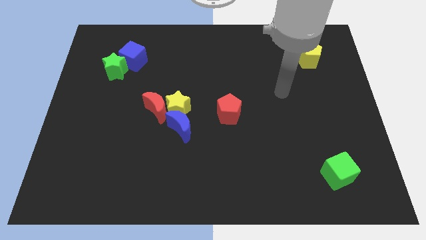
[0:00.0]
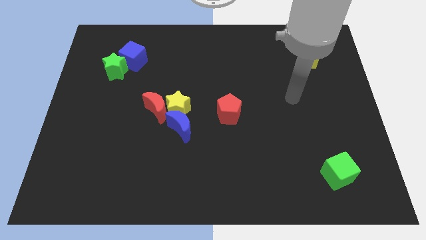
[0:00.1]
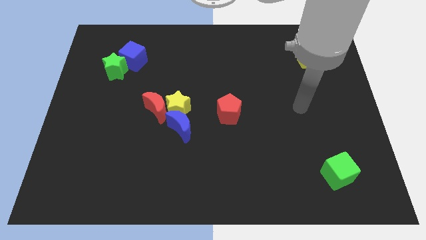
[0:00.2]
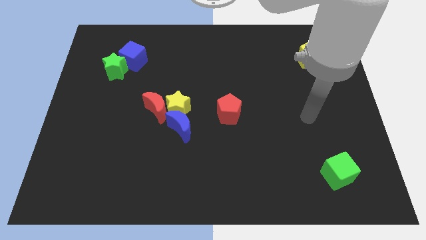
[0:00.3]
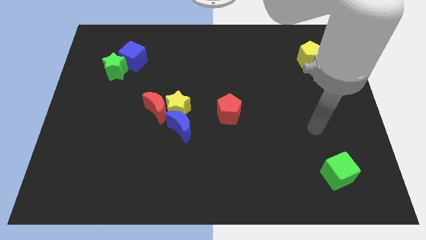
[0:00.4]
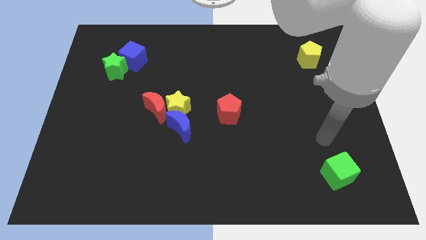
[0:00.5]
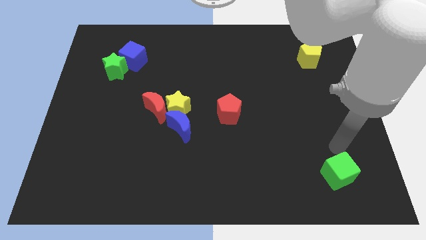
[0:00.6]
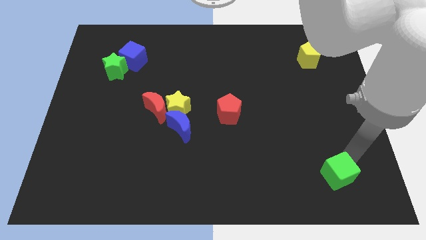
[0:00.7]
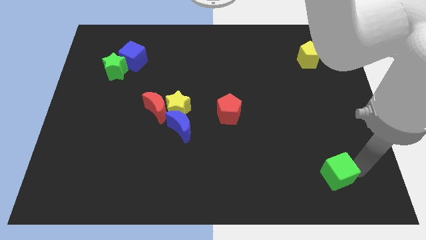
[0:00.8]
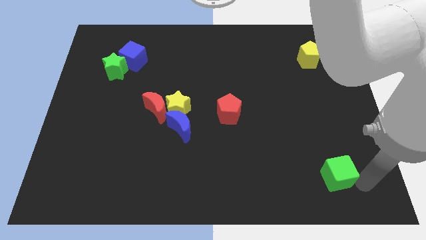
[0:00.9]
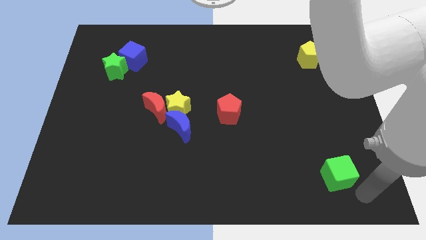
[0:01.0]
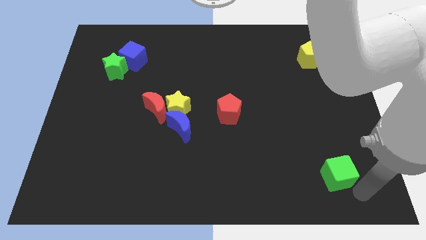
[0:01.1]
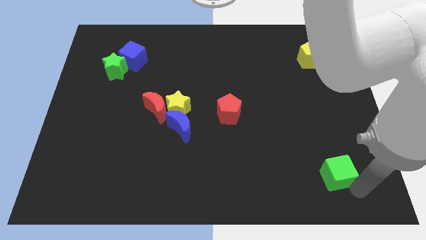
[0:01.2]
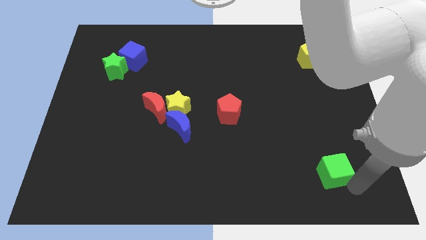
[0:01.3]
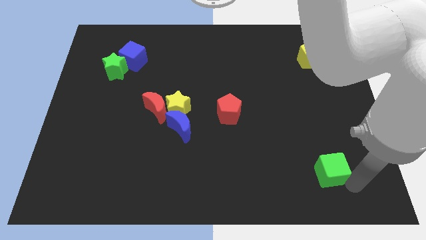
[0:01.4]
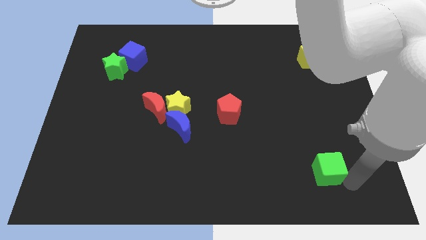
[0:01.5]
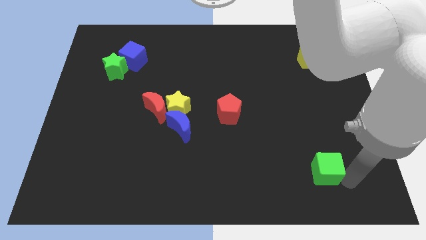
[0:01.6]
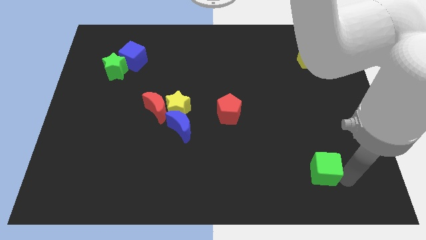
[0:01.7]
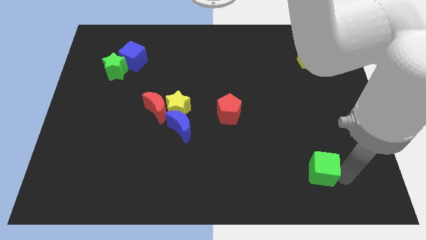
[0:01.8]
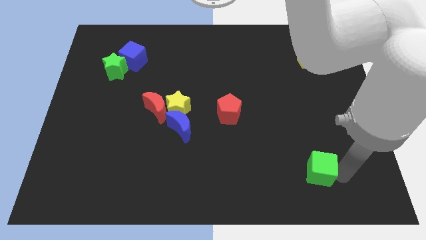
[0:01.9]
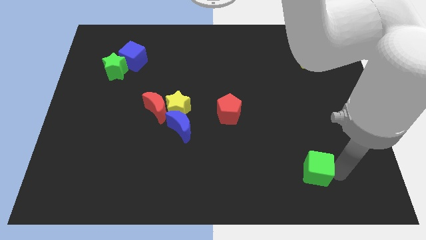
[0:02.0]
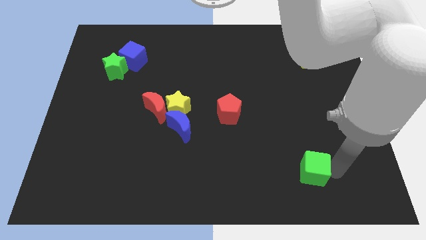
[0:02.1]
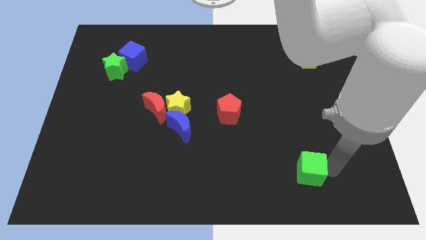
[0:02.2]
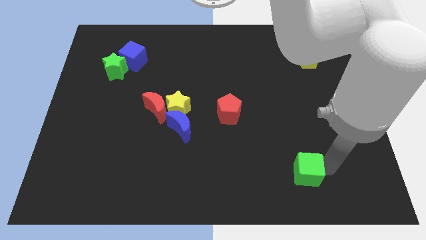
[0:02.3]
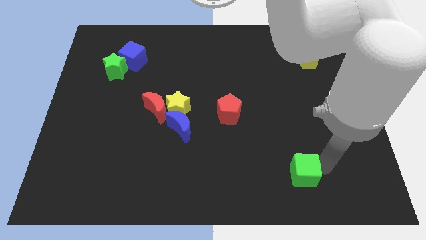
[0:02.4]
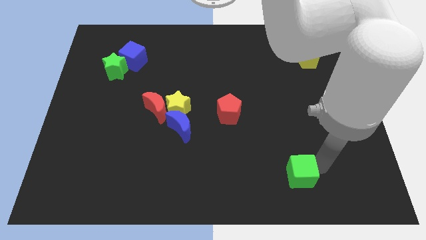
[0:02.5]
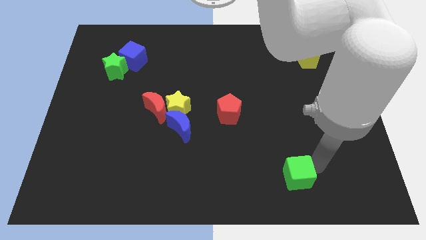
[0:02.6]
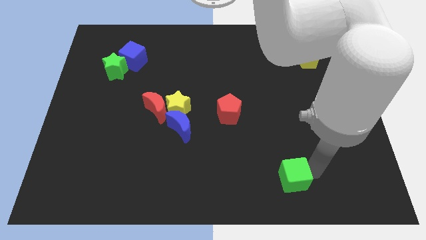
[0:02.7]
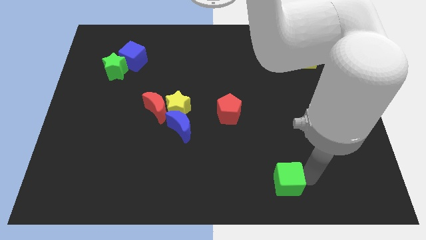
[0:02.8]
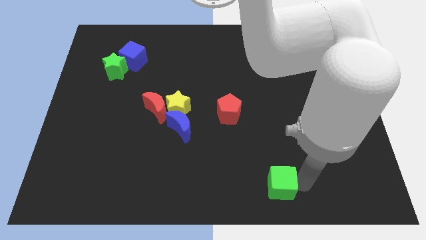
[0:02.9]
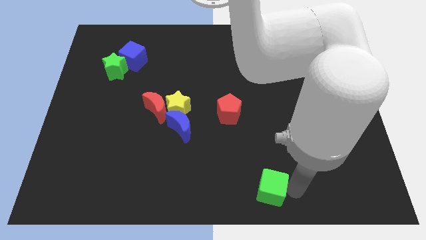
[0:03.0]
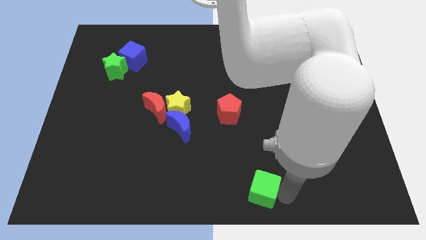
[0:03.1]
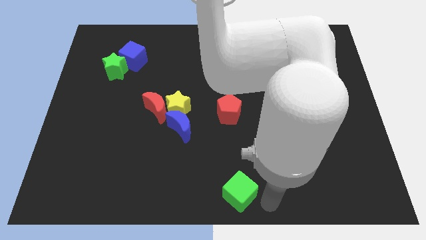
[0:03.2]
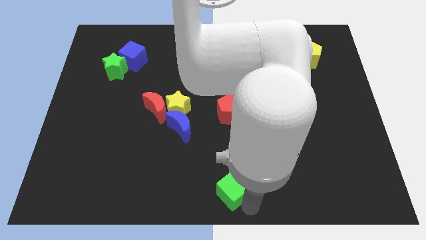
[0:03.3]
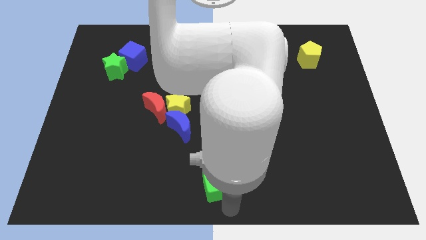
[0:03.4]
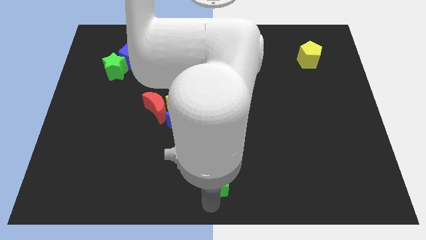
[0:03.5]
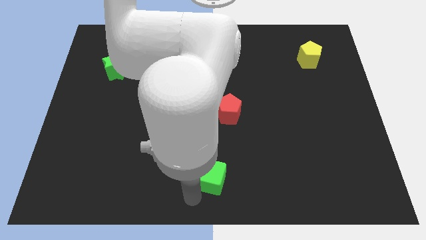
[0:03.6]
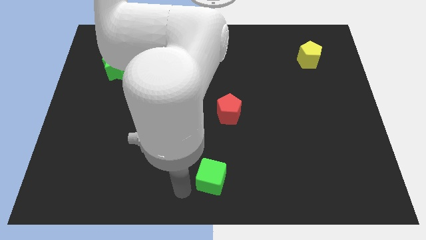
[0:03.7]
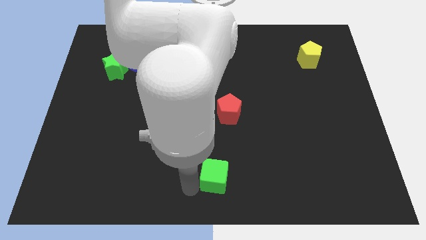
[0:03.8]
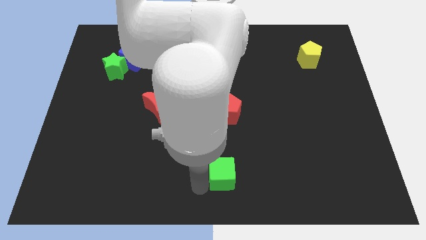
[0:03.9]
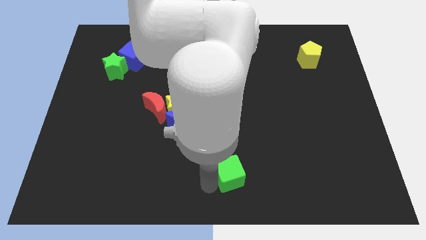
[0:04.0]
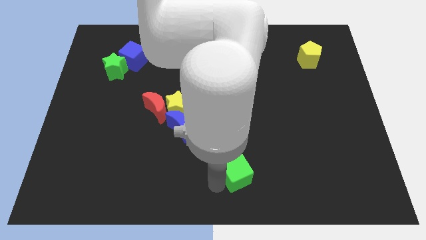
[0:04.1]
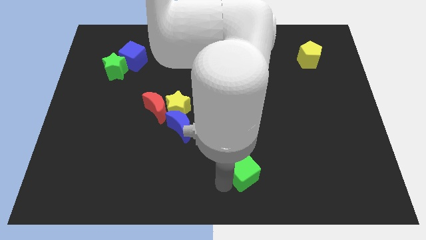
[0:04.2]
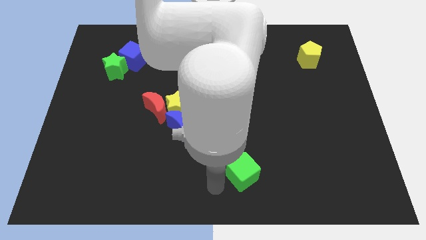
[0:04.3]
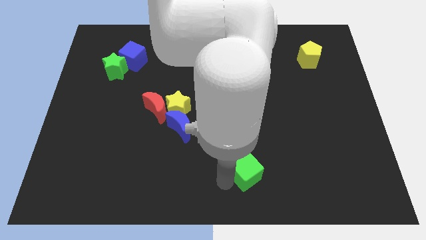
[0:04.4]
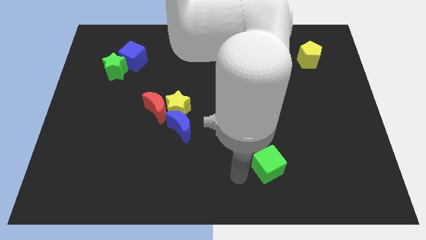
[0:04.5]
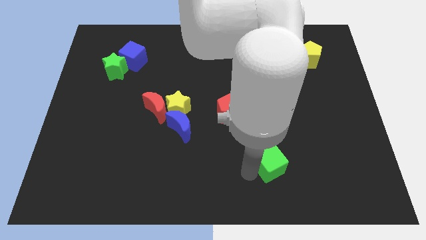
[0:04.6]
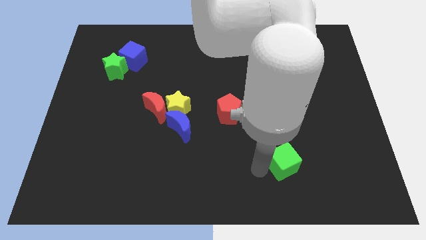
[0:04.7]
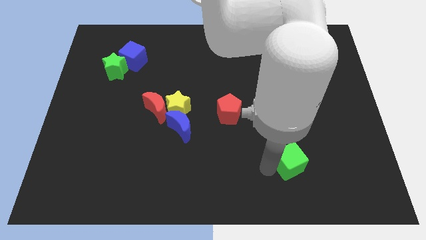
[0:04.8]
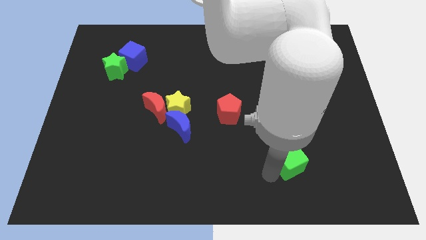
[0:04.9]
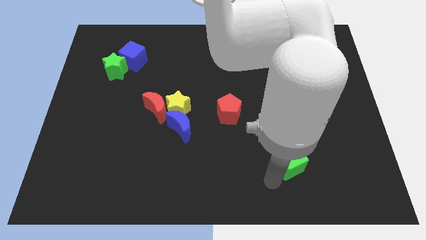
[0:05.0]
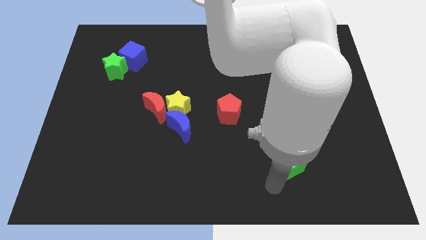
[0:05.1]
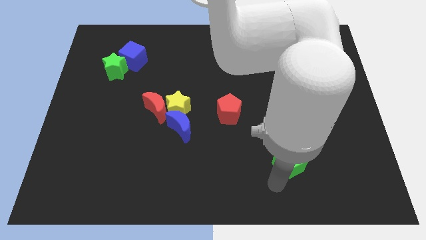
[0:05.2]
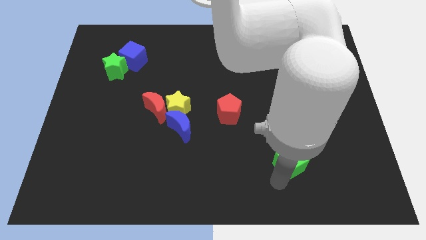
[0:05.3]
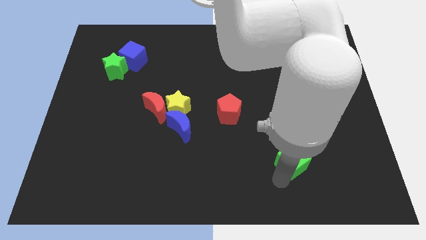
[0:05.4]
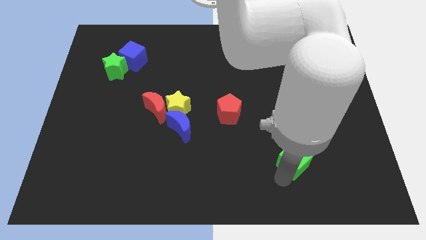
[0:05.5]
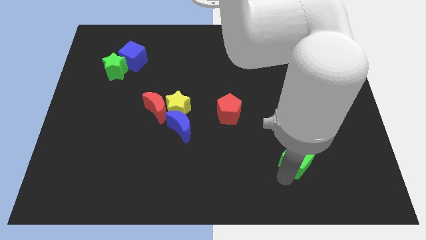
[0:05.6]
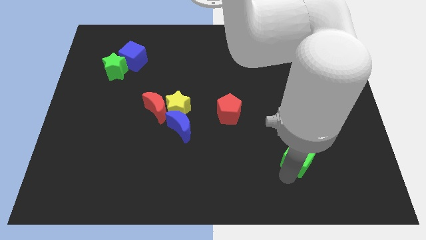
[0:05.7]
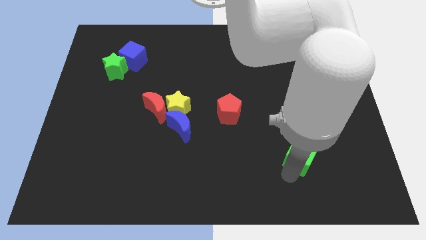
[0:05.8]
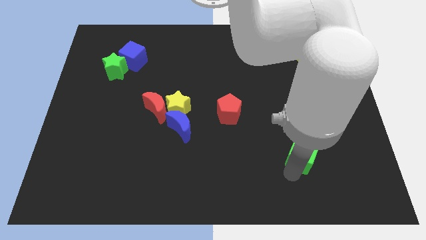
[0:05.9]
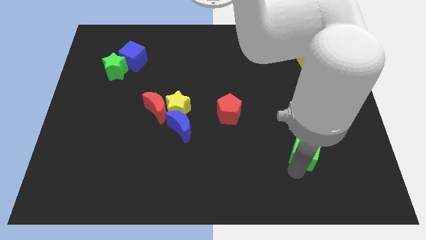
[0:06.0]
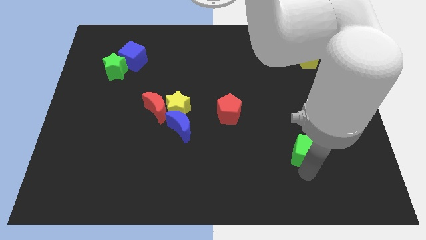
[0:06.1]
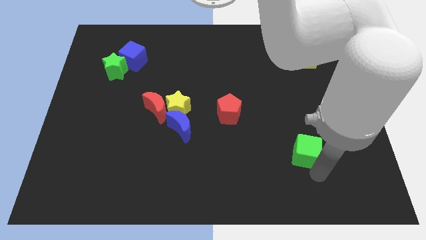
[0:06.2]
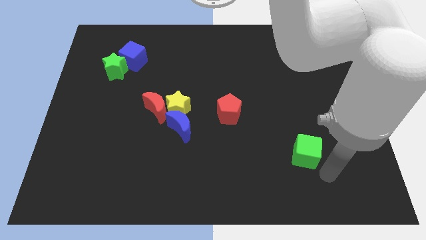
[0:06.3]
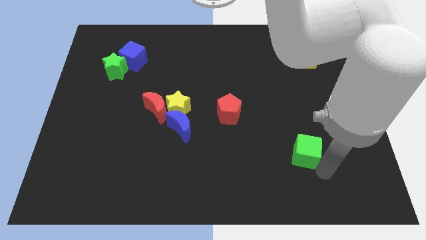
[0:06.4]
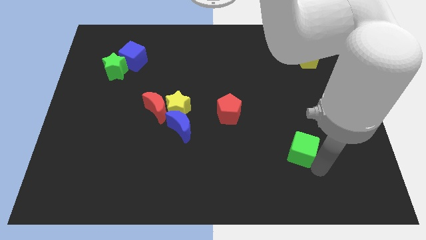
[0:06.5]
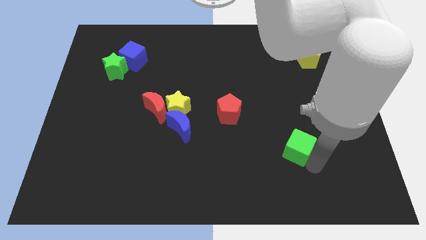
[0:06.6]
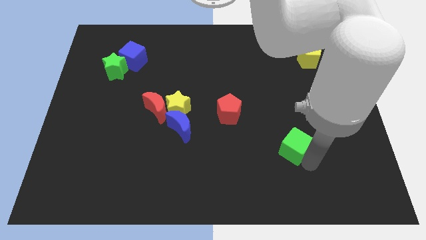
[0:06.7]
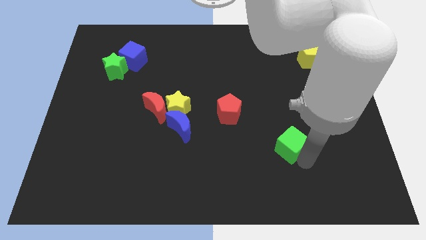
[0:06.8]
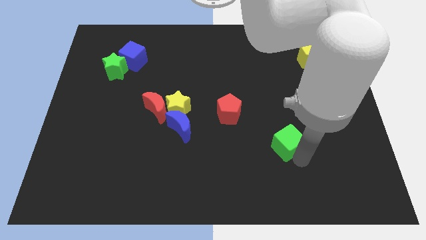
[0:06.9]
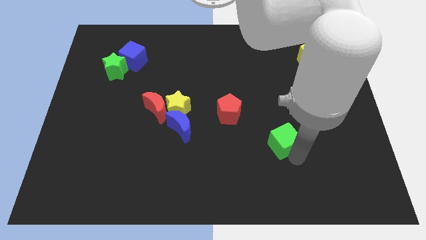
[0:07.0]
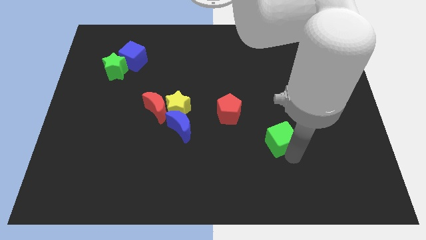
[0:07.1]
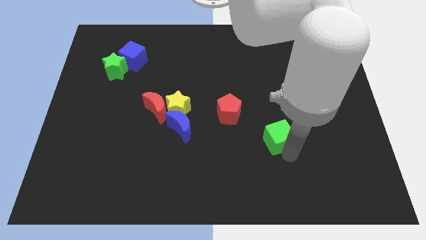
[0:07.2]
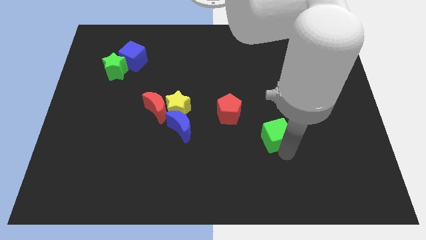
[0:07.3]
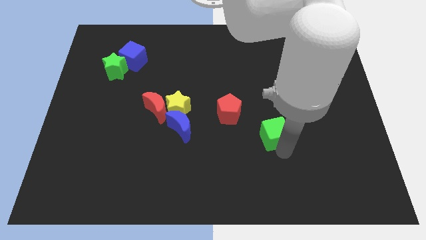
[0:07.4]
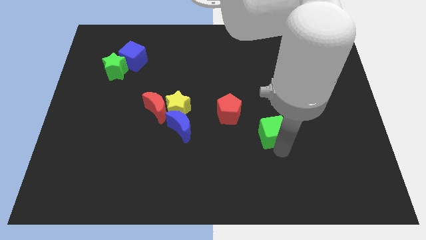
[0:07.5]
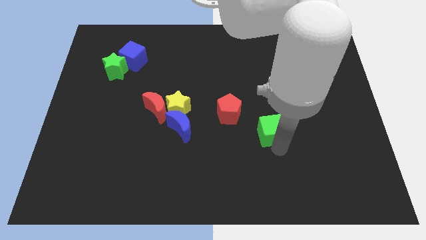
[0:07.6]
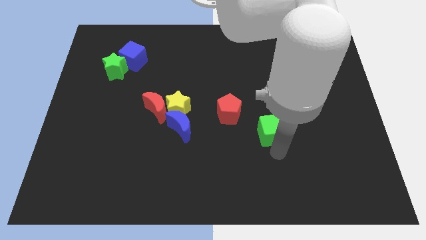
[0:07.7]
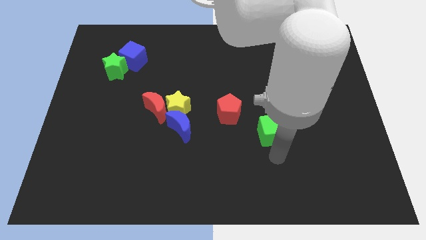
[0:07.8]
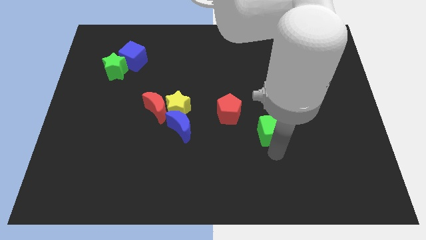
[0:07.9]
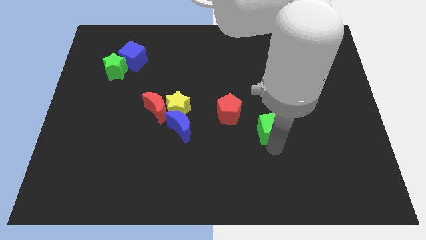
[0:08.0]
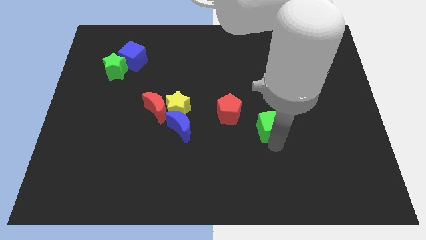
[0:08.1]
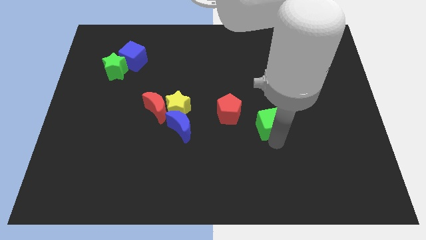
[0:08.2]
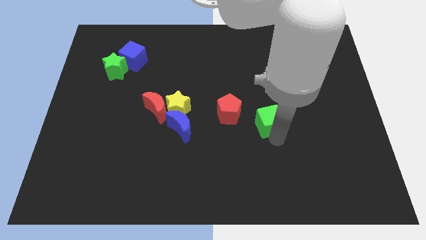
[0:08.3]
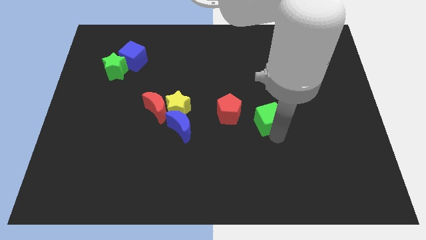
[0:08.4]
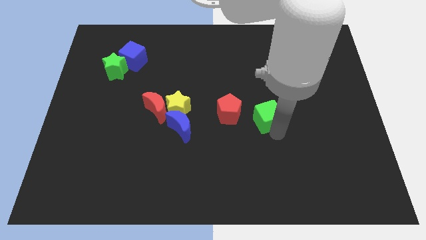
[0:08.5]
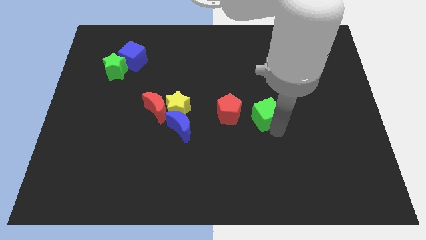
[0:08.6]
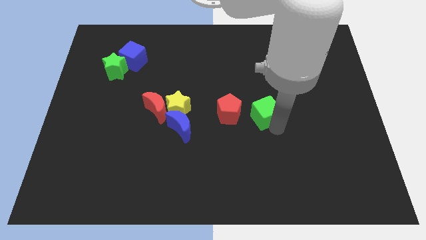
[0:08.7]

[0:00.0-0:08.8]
put the green cube to the middle of the board
